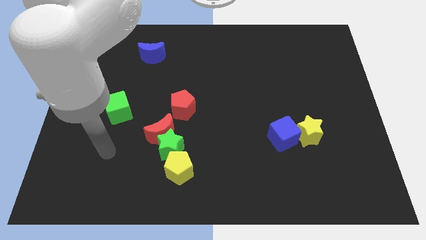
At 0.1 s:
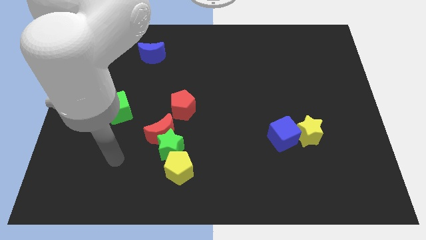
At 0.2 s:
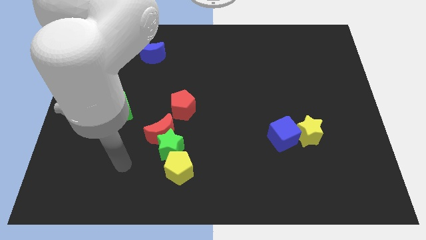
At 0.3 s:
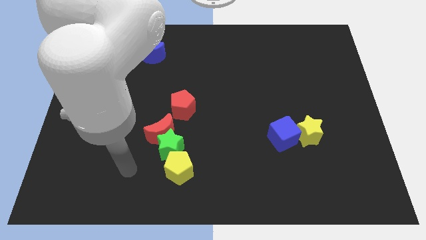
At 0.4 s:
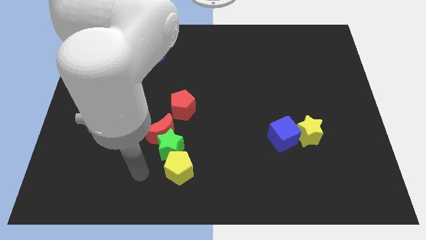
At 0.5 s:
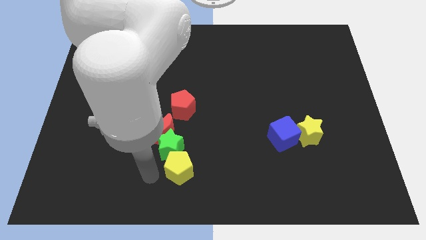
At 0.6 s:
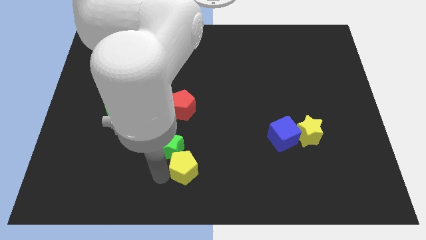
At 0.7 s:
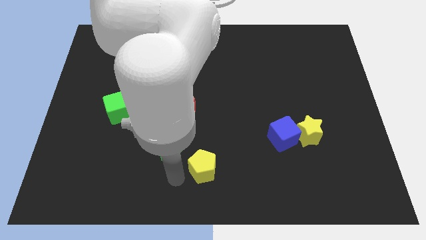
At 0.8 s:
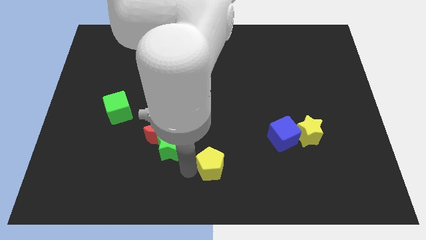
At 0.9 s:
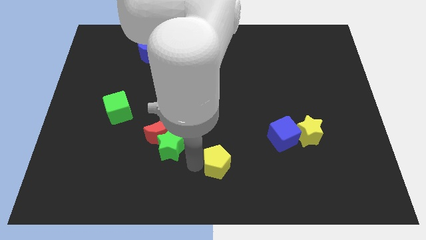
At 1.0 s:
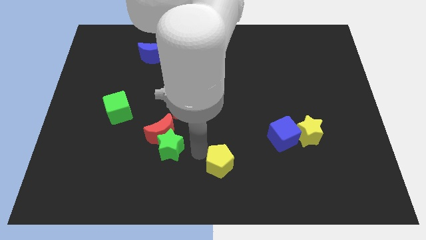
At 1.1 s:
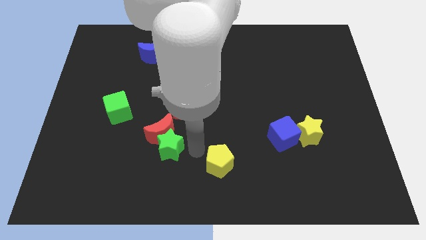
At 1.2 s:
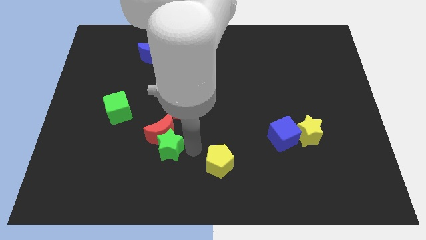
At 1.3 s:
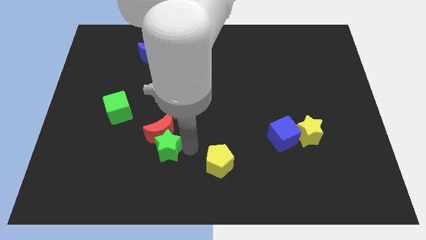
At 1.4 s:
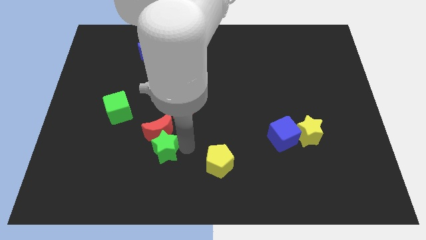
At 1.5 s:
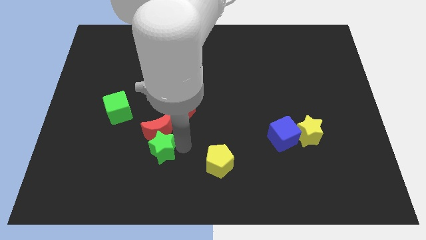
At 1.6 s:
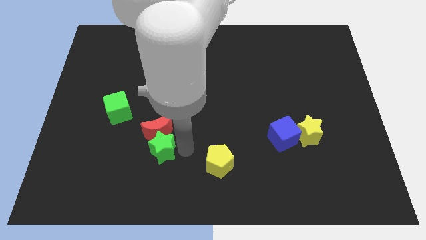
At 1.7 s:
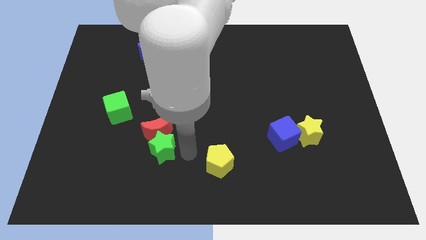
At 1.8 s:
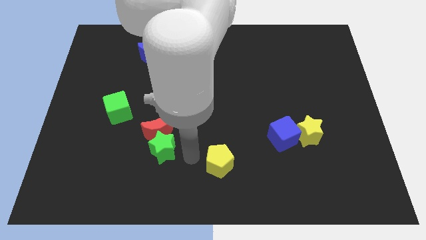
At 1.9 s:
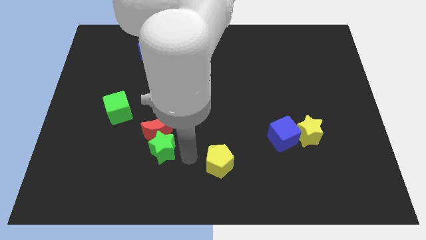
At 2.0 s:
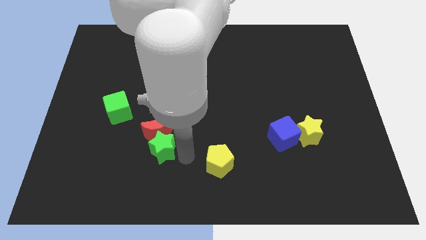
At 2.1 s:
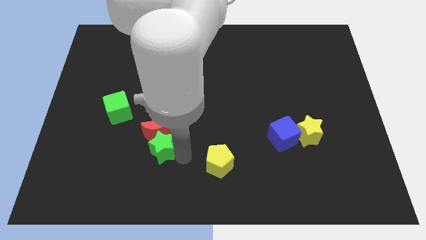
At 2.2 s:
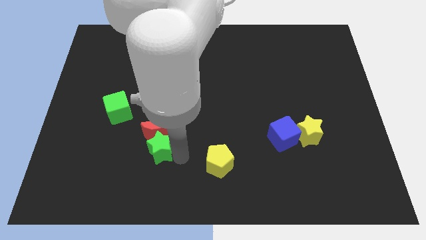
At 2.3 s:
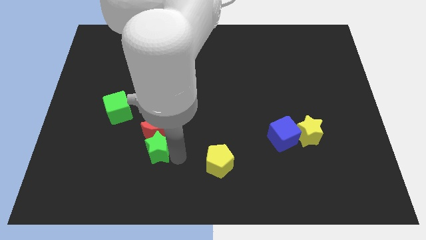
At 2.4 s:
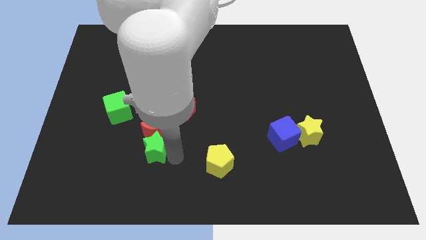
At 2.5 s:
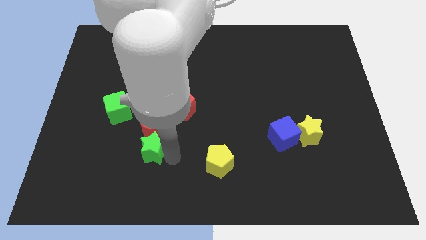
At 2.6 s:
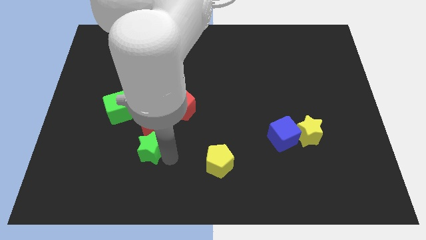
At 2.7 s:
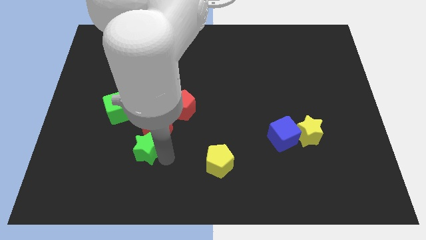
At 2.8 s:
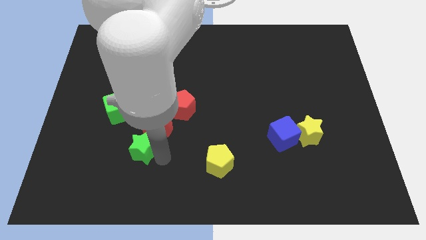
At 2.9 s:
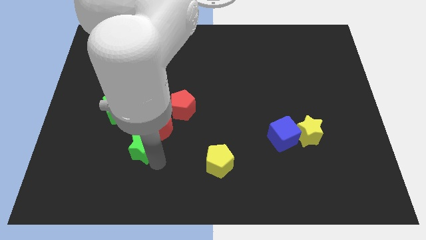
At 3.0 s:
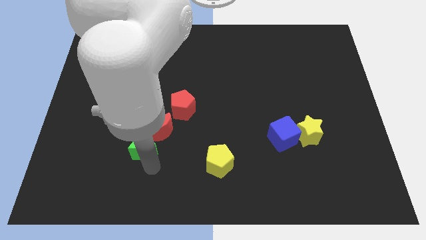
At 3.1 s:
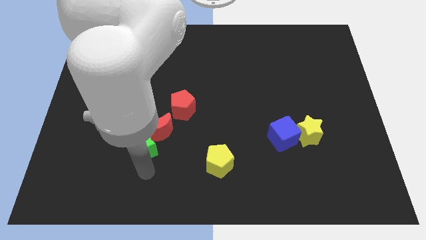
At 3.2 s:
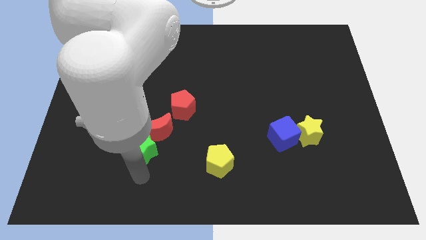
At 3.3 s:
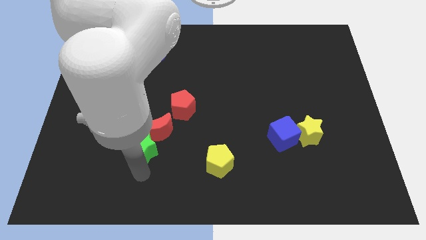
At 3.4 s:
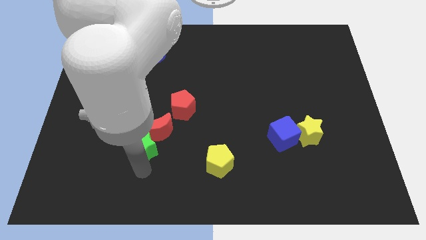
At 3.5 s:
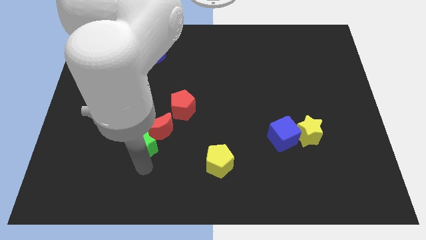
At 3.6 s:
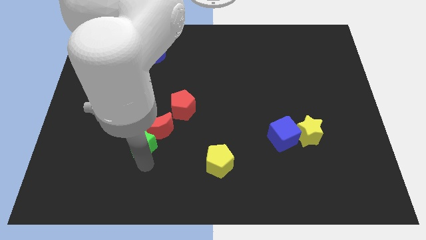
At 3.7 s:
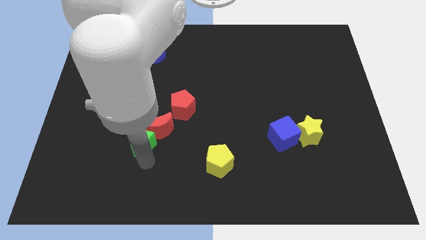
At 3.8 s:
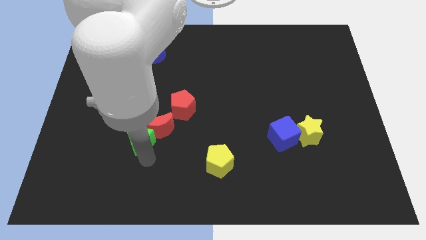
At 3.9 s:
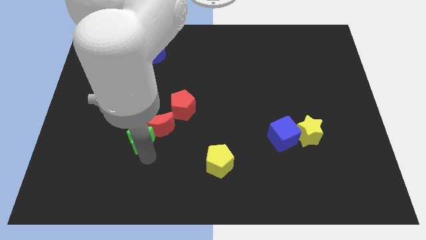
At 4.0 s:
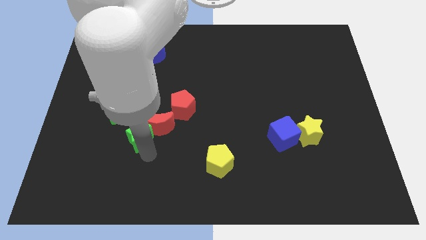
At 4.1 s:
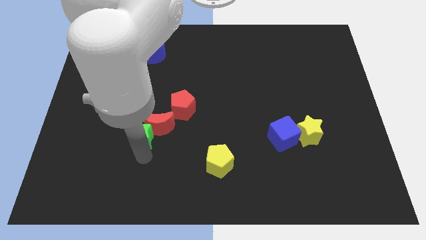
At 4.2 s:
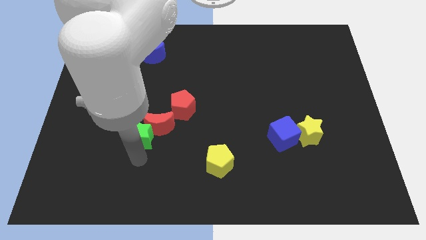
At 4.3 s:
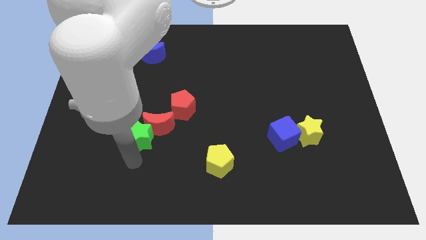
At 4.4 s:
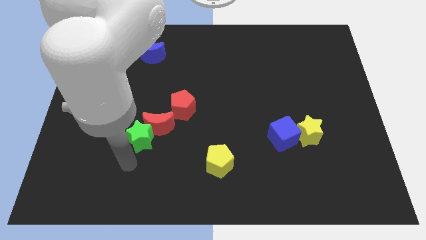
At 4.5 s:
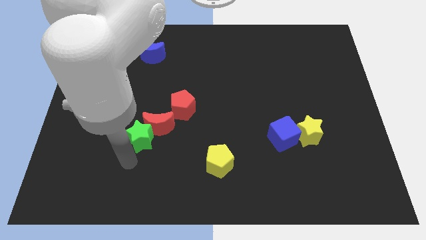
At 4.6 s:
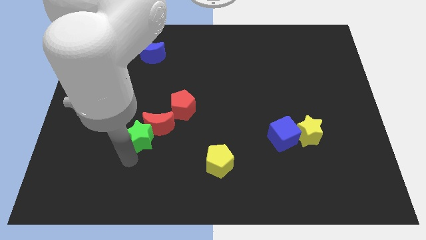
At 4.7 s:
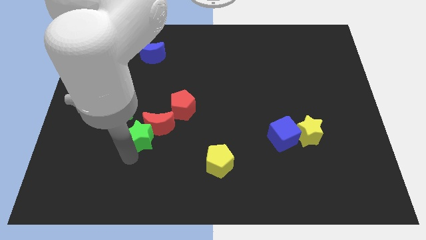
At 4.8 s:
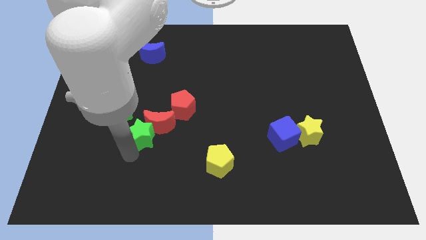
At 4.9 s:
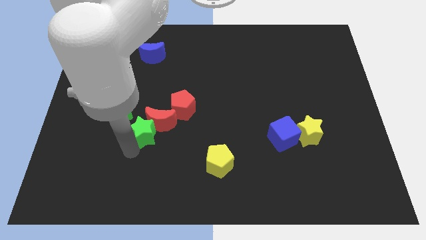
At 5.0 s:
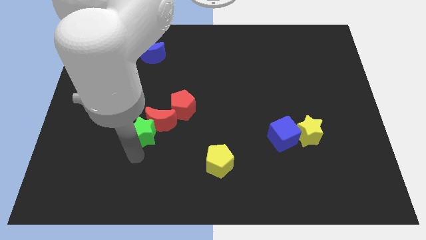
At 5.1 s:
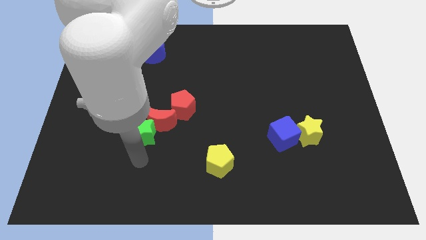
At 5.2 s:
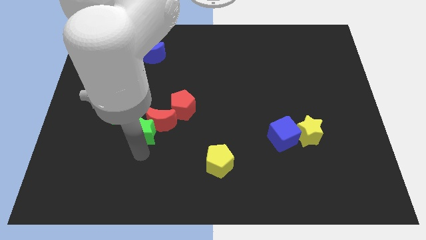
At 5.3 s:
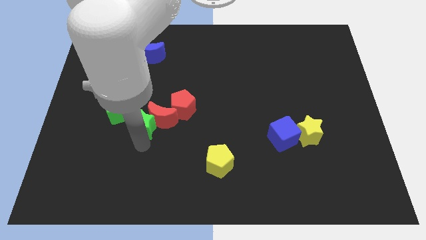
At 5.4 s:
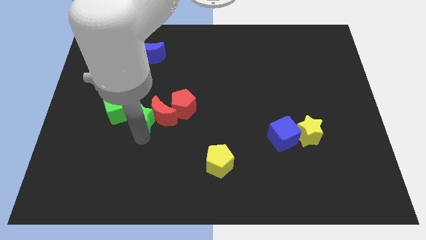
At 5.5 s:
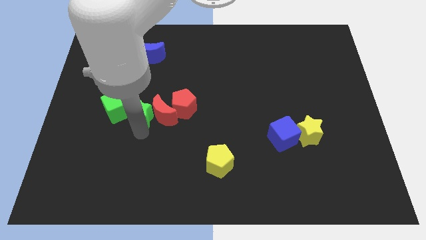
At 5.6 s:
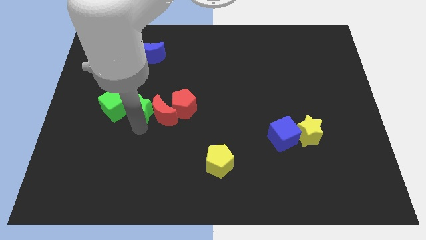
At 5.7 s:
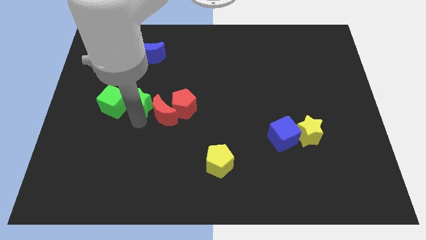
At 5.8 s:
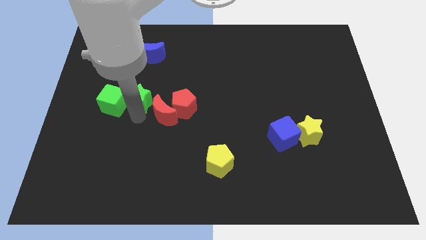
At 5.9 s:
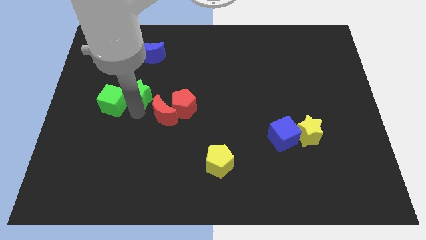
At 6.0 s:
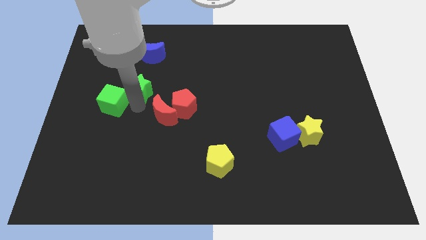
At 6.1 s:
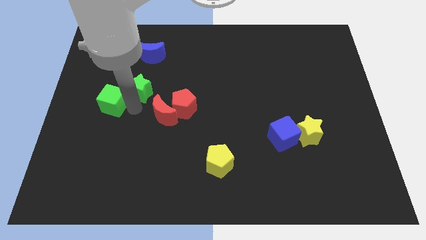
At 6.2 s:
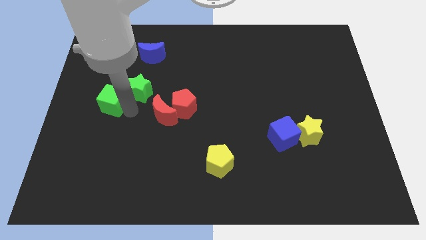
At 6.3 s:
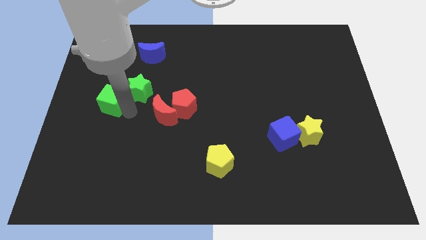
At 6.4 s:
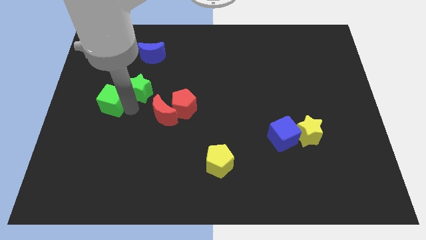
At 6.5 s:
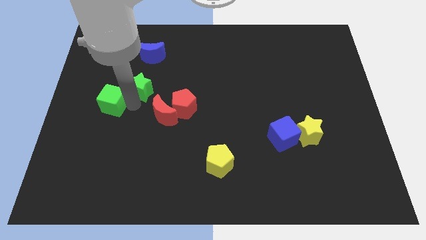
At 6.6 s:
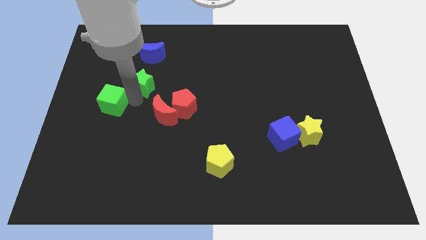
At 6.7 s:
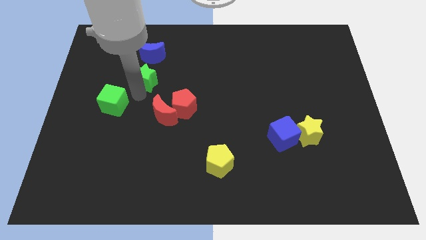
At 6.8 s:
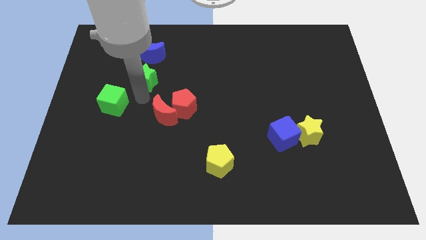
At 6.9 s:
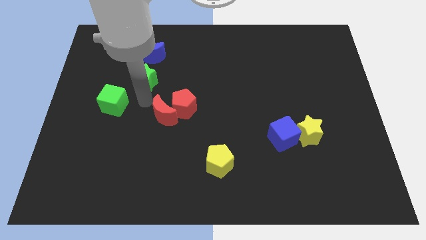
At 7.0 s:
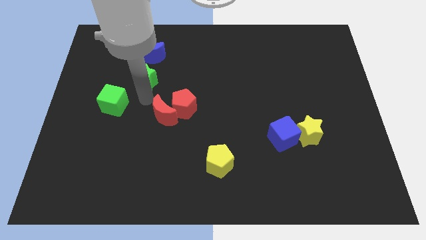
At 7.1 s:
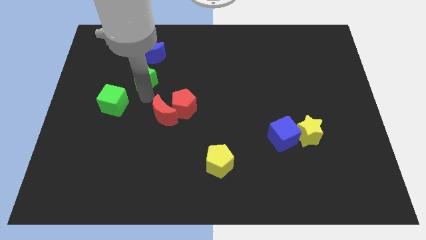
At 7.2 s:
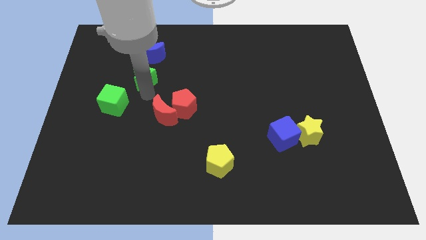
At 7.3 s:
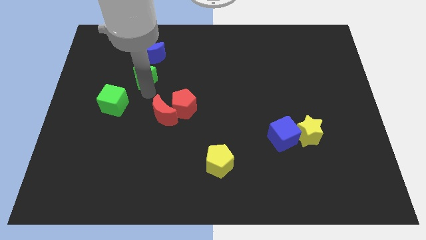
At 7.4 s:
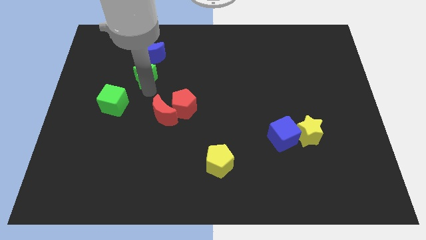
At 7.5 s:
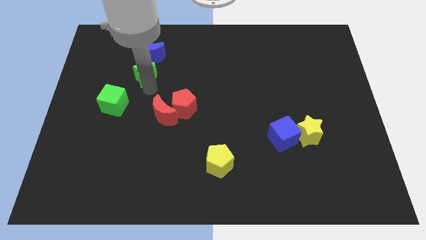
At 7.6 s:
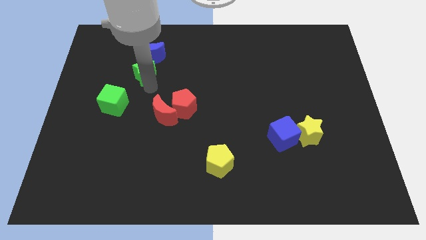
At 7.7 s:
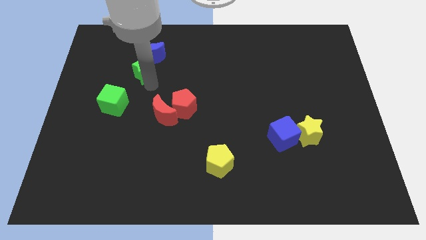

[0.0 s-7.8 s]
push the green star towards the blue moon
